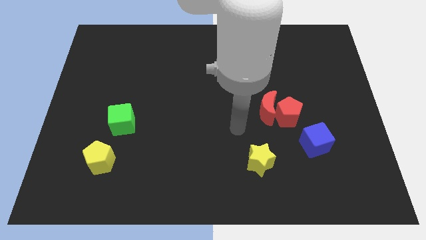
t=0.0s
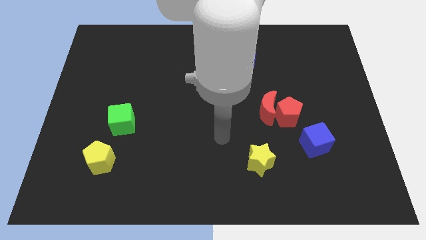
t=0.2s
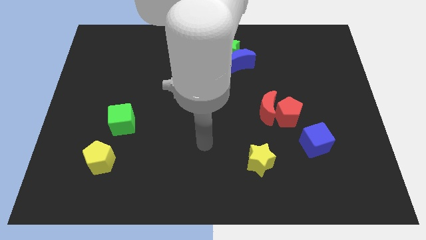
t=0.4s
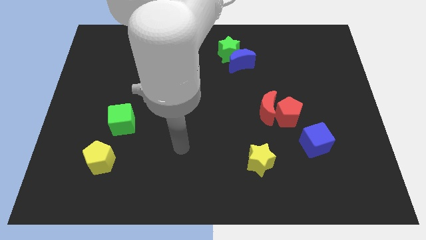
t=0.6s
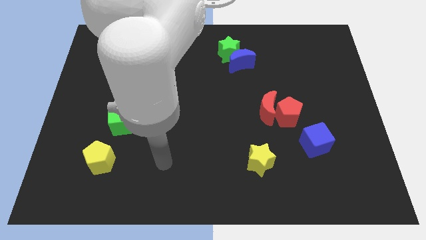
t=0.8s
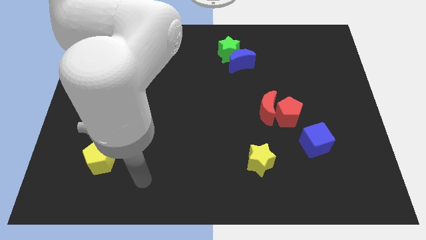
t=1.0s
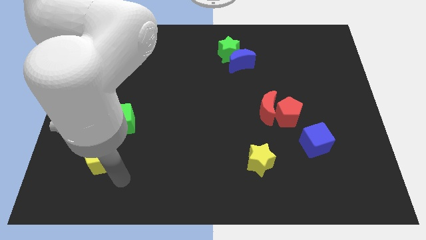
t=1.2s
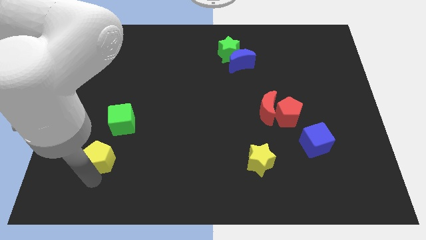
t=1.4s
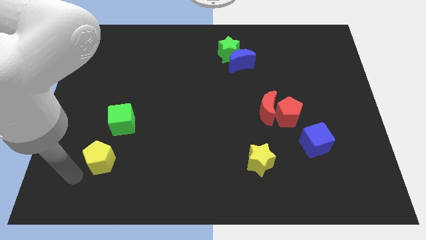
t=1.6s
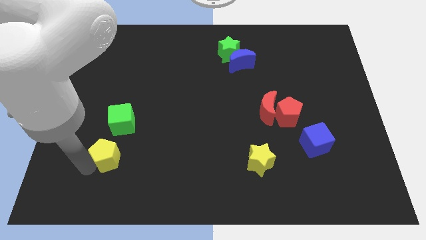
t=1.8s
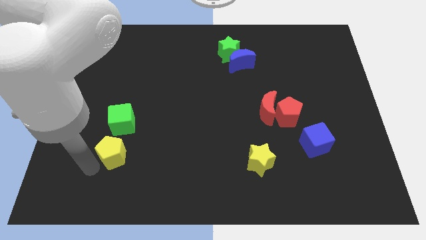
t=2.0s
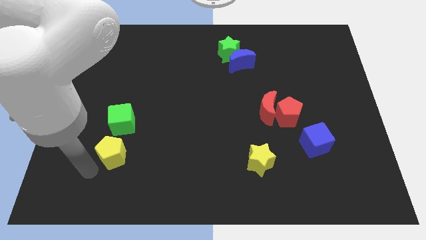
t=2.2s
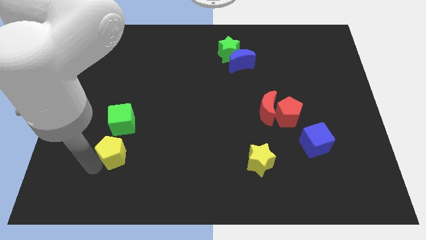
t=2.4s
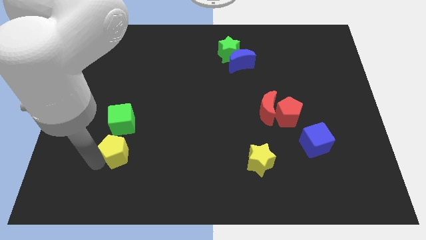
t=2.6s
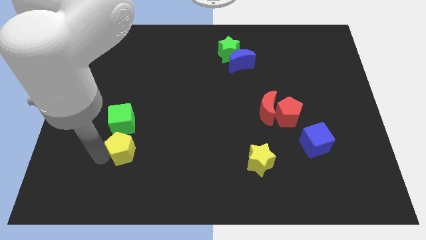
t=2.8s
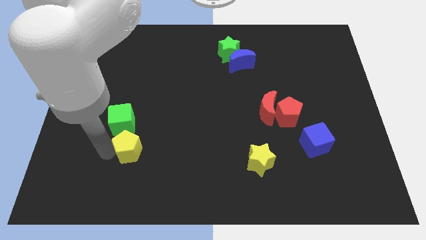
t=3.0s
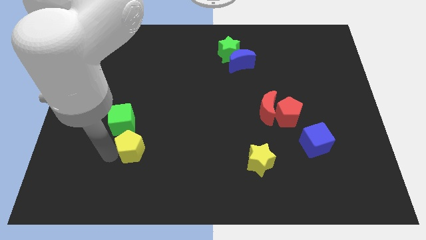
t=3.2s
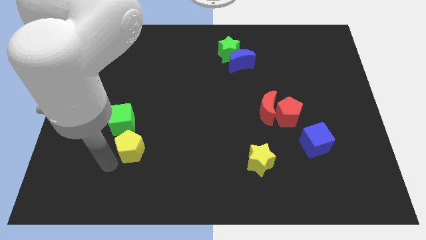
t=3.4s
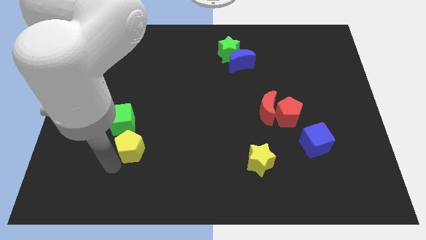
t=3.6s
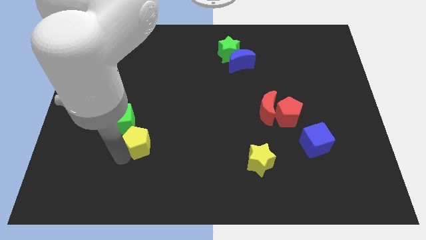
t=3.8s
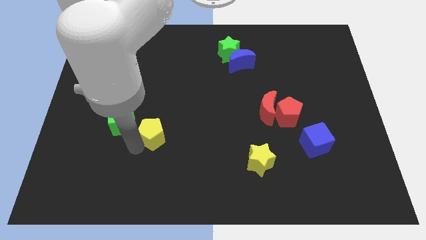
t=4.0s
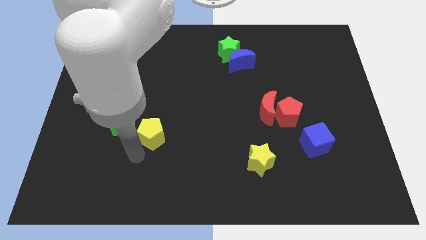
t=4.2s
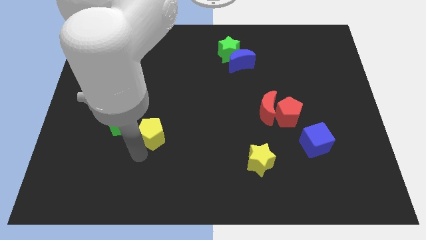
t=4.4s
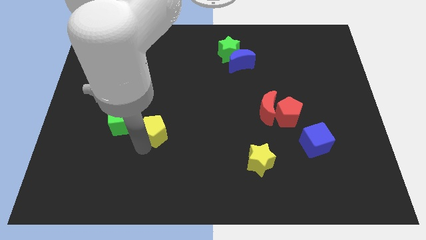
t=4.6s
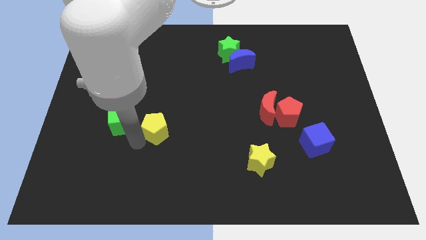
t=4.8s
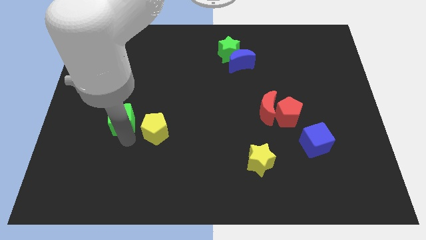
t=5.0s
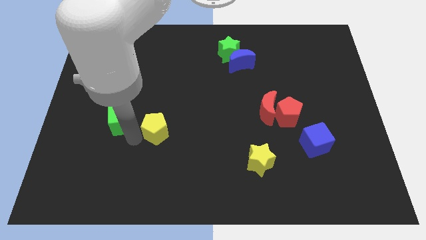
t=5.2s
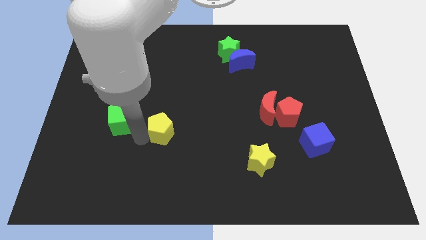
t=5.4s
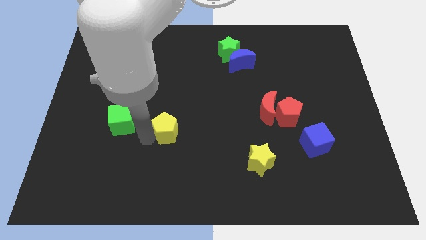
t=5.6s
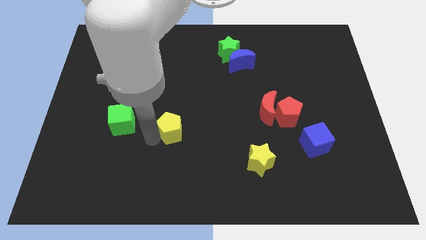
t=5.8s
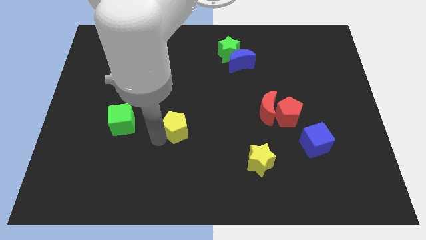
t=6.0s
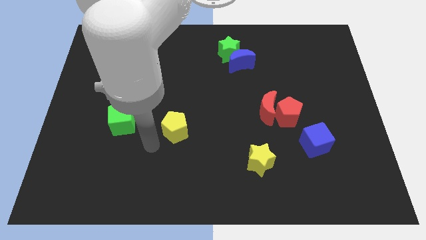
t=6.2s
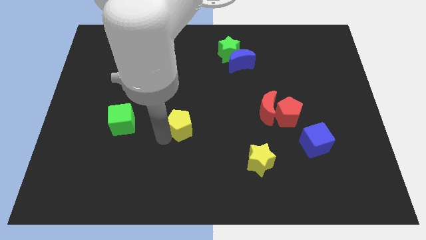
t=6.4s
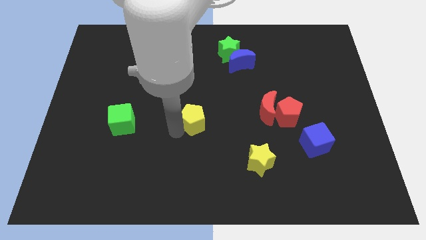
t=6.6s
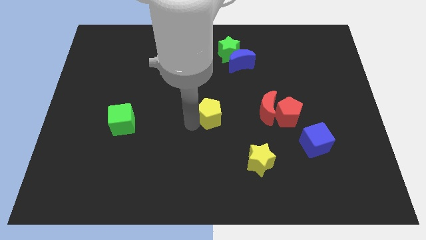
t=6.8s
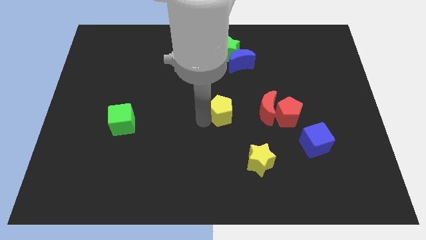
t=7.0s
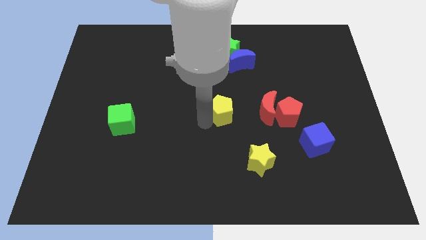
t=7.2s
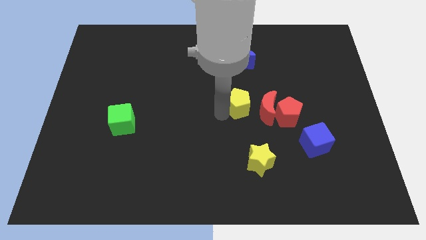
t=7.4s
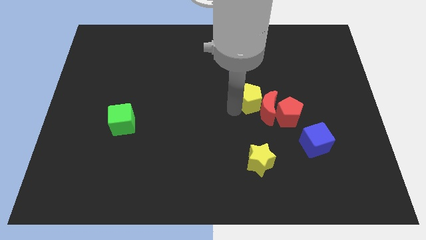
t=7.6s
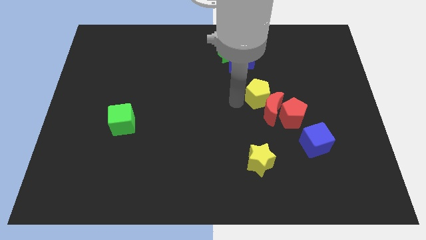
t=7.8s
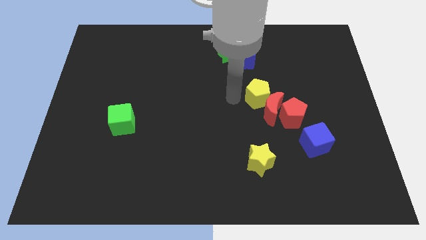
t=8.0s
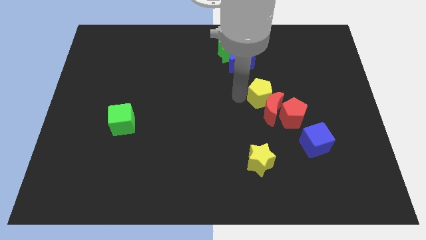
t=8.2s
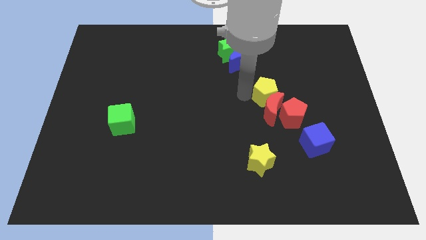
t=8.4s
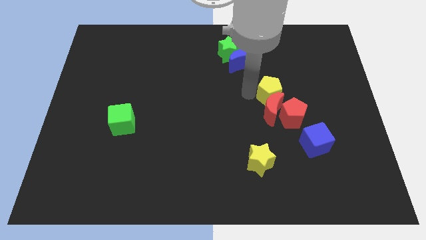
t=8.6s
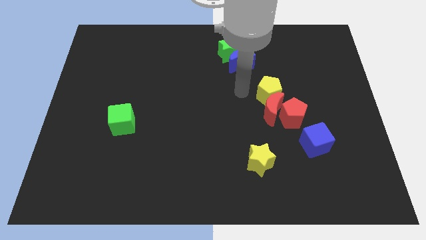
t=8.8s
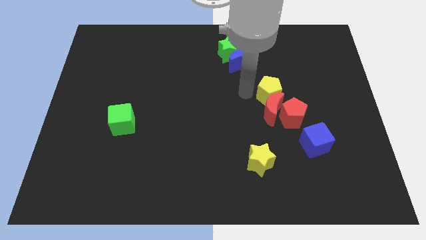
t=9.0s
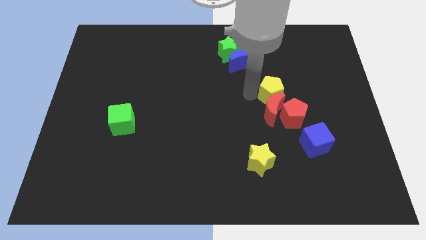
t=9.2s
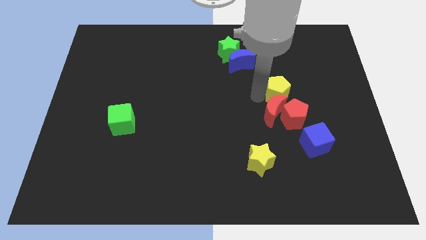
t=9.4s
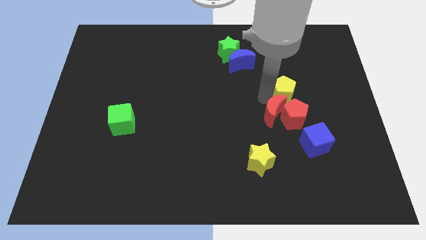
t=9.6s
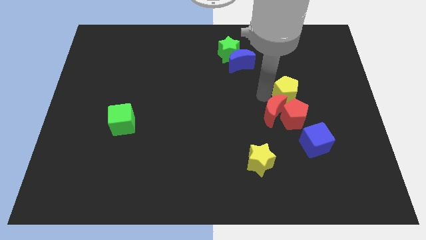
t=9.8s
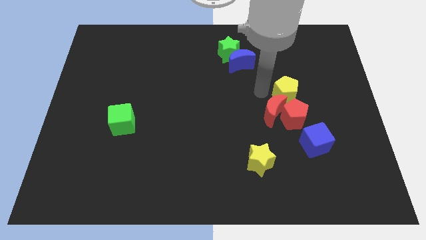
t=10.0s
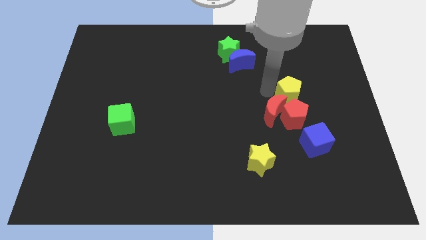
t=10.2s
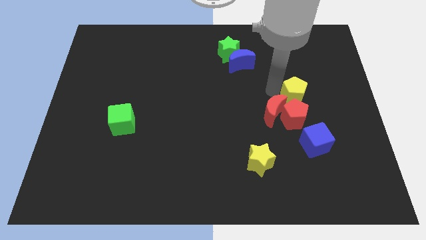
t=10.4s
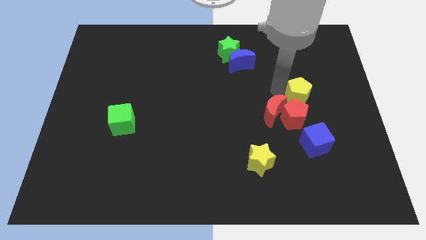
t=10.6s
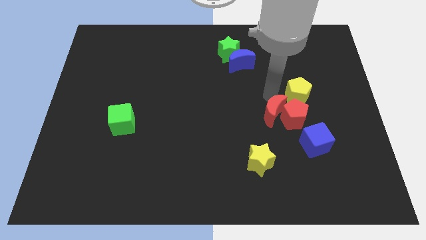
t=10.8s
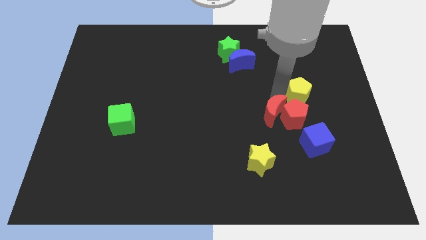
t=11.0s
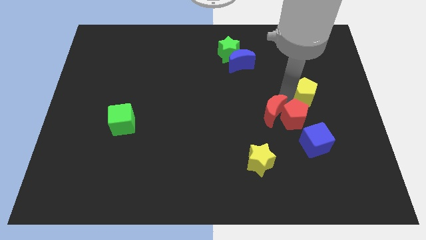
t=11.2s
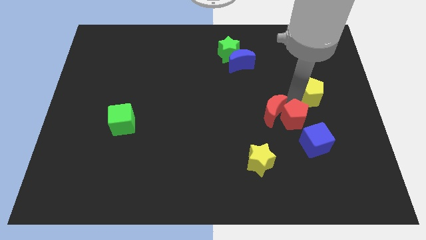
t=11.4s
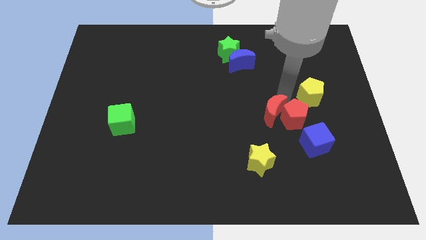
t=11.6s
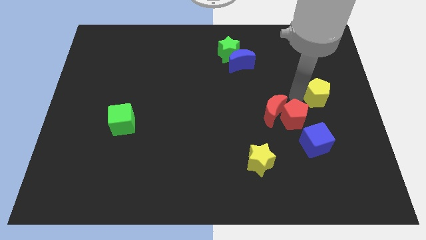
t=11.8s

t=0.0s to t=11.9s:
slide the yellow pentagon to the right side of the board

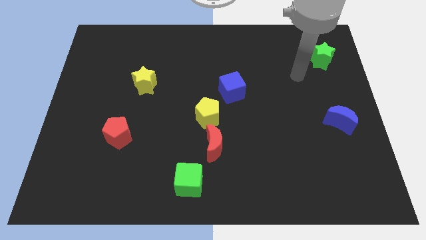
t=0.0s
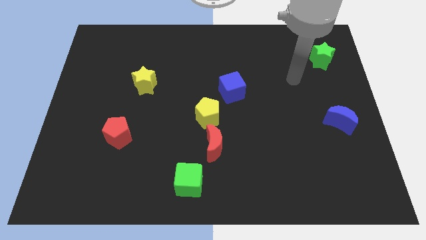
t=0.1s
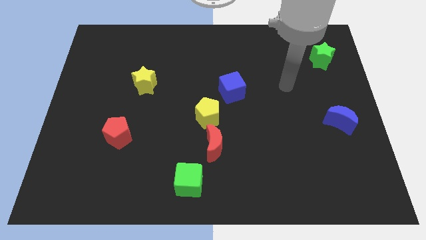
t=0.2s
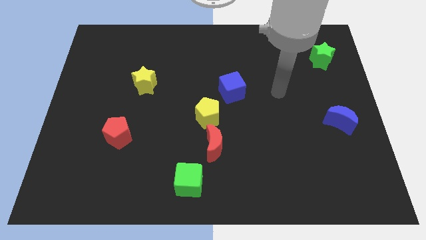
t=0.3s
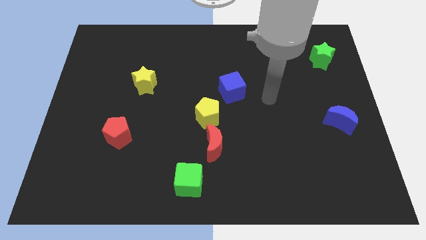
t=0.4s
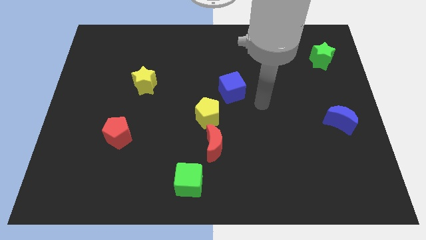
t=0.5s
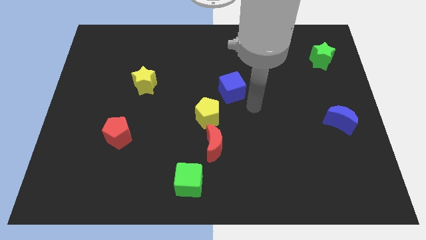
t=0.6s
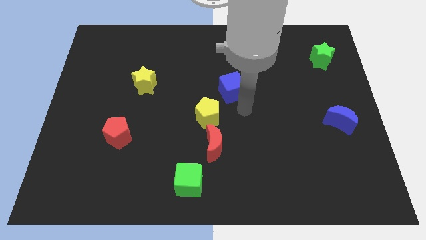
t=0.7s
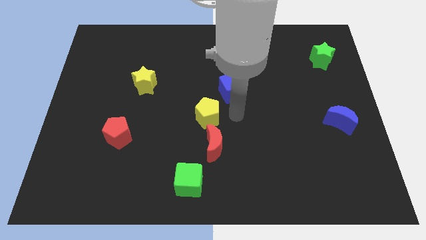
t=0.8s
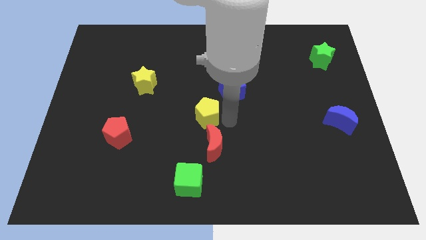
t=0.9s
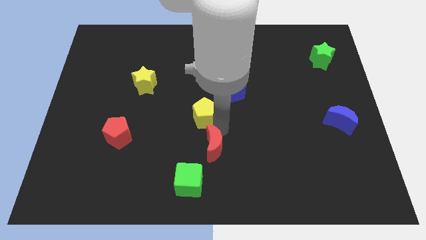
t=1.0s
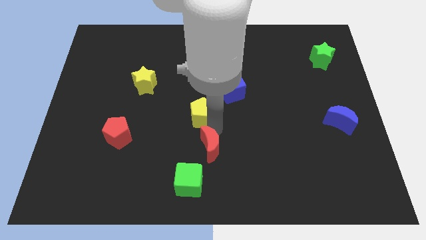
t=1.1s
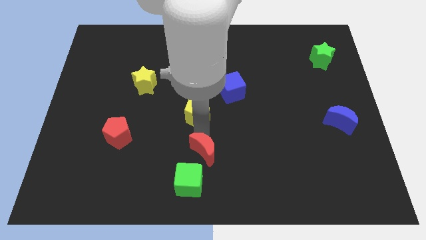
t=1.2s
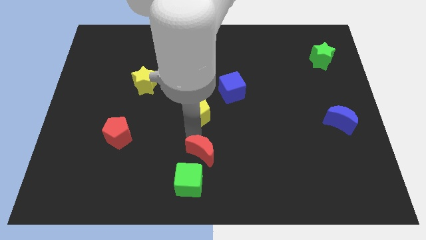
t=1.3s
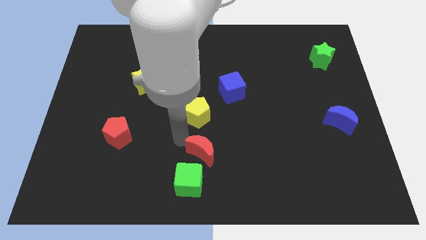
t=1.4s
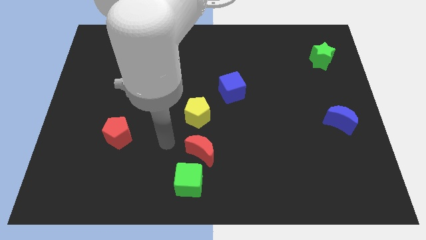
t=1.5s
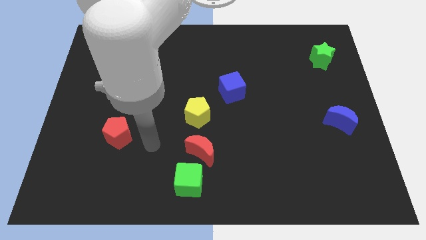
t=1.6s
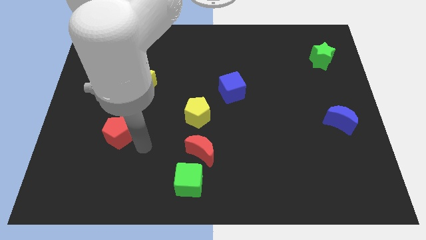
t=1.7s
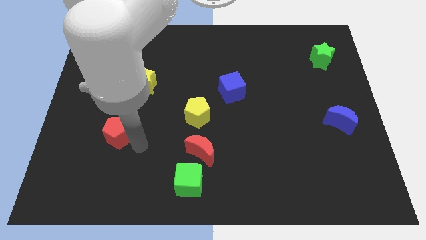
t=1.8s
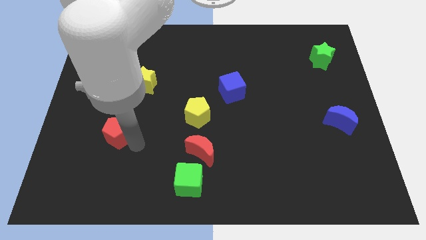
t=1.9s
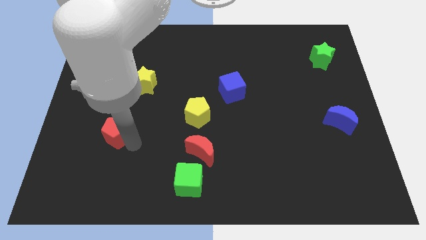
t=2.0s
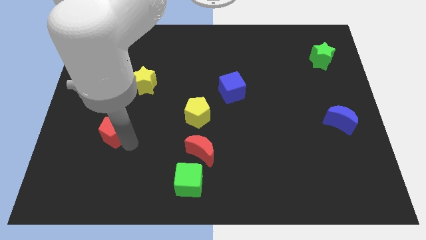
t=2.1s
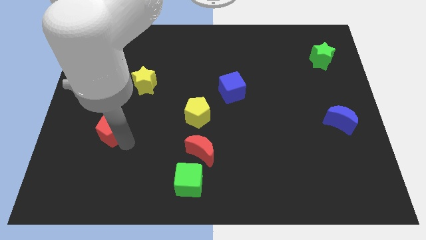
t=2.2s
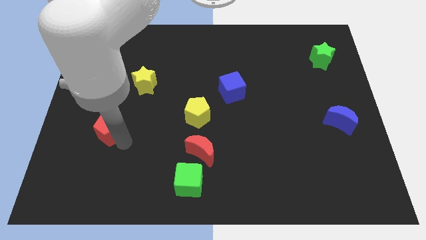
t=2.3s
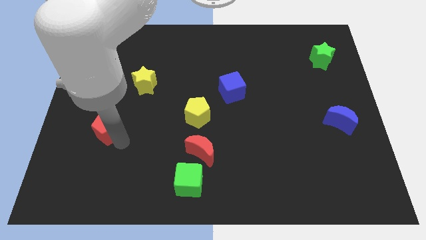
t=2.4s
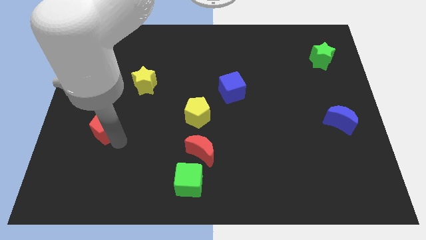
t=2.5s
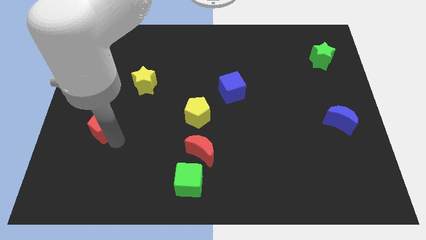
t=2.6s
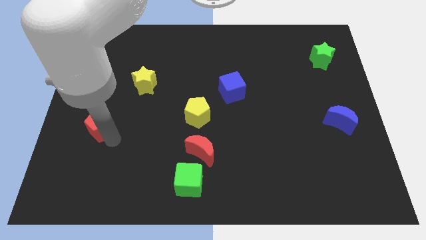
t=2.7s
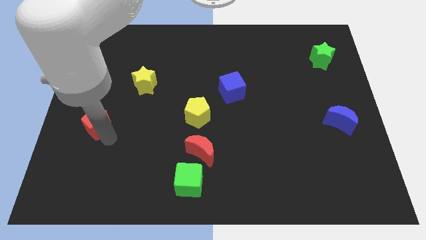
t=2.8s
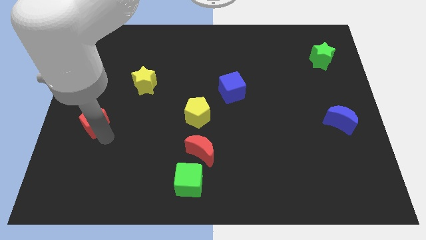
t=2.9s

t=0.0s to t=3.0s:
move the red pentagon to the left side
